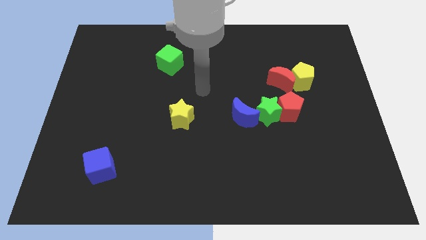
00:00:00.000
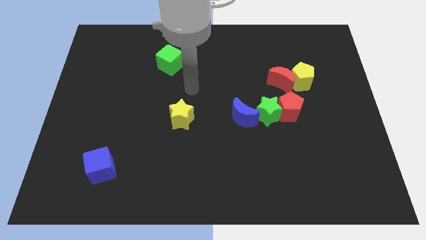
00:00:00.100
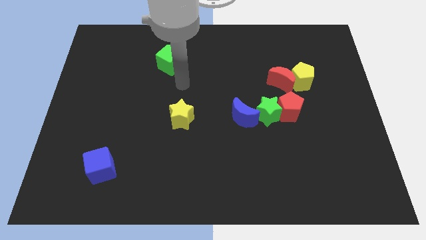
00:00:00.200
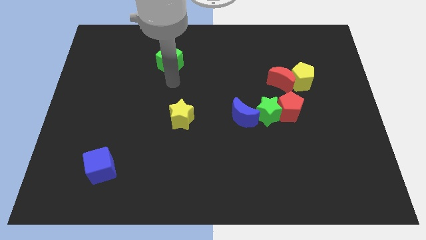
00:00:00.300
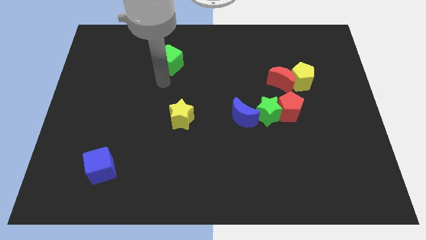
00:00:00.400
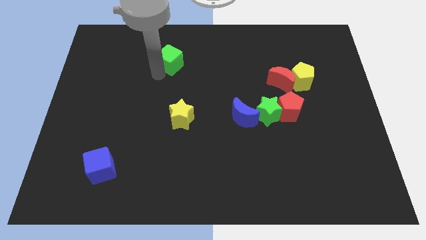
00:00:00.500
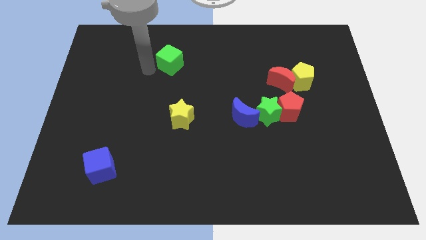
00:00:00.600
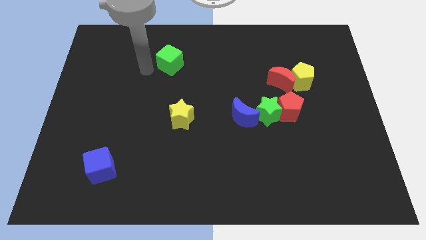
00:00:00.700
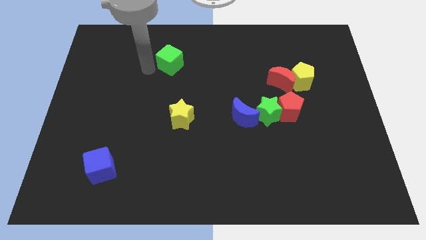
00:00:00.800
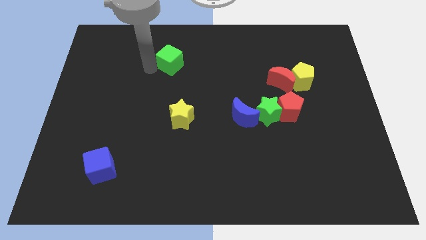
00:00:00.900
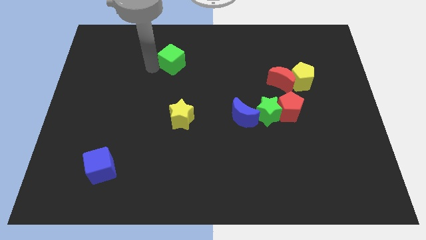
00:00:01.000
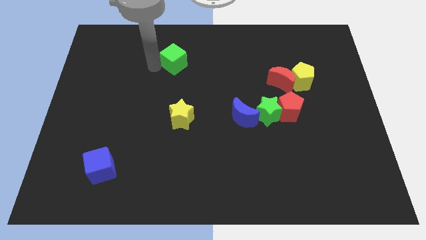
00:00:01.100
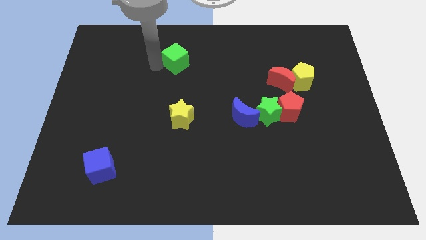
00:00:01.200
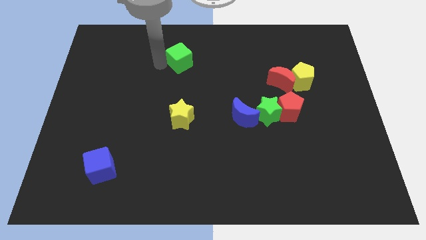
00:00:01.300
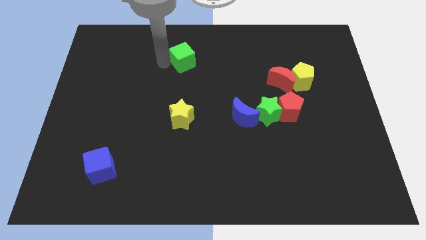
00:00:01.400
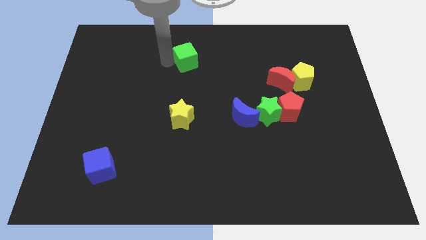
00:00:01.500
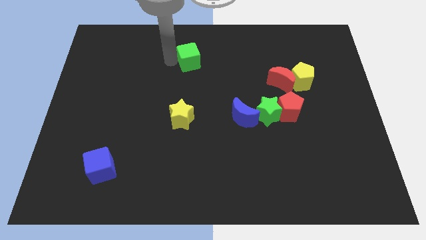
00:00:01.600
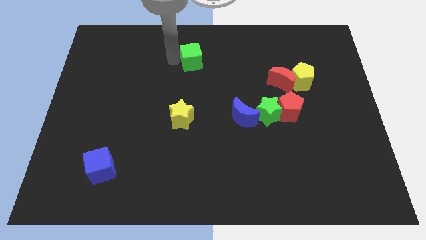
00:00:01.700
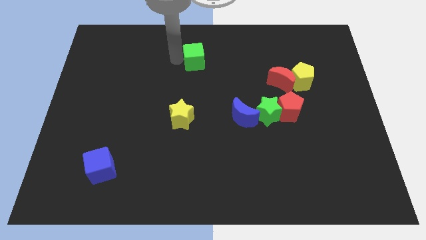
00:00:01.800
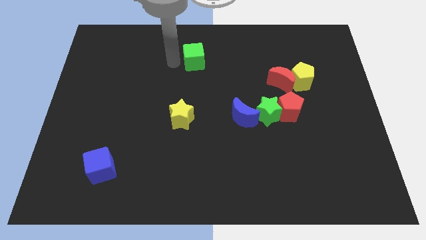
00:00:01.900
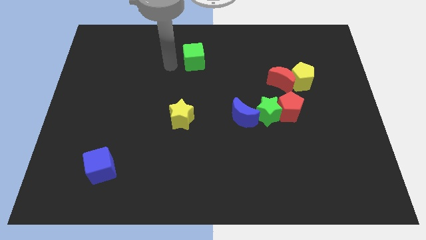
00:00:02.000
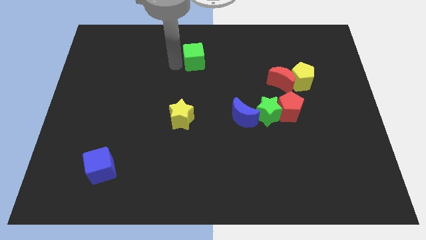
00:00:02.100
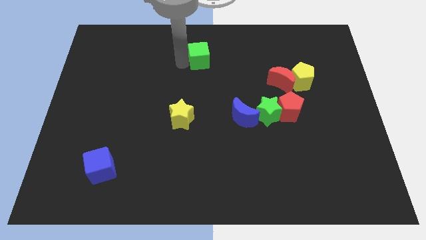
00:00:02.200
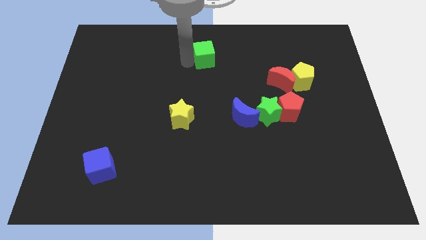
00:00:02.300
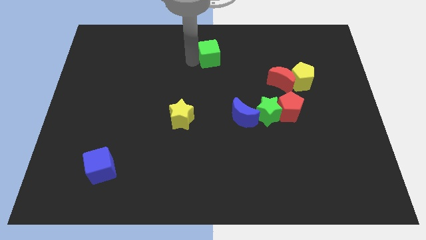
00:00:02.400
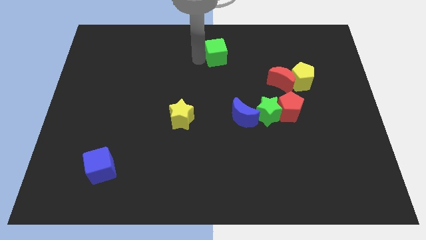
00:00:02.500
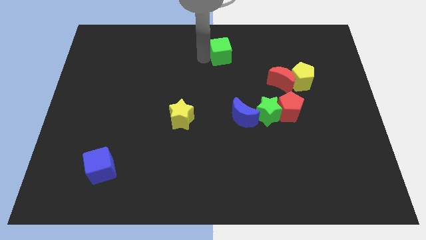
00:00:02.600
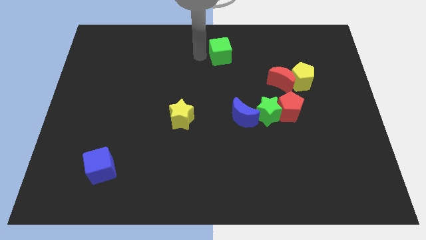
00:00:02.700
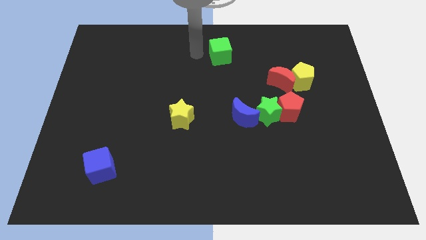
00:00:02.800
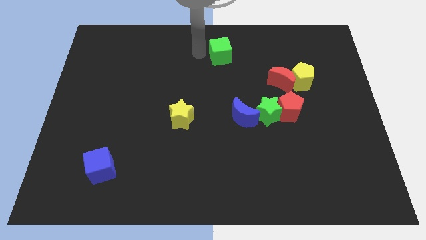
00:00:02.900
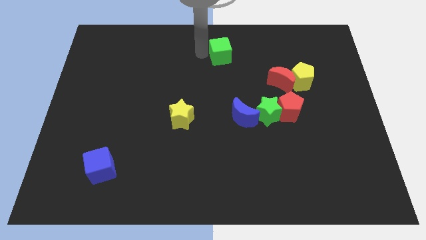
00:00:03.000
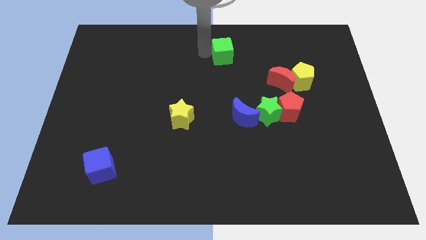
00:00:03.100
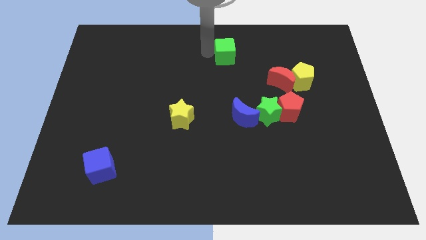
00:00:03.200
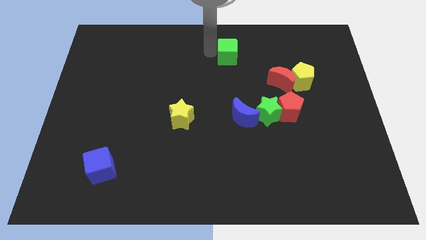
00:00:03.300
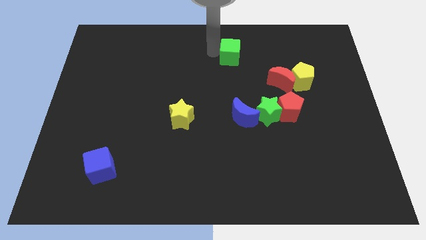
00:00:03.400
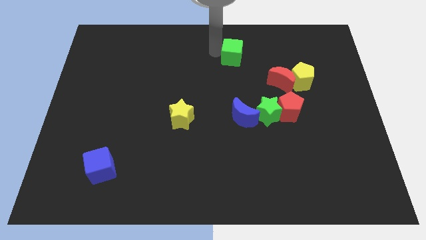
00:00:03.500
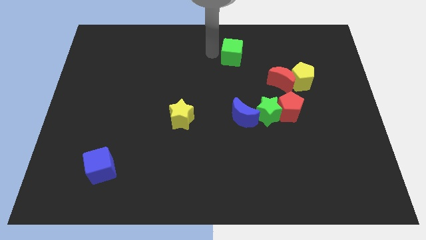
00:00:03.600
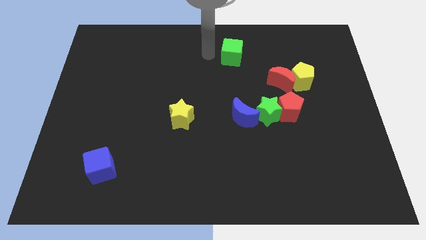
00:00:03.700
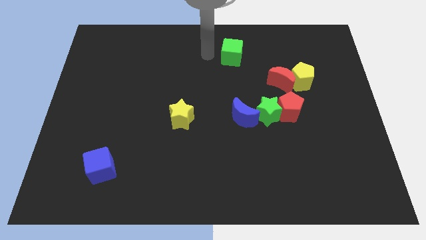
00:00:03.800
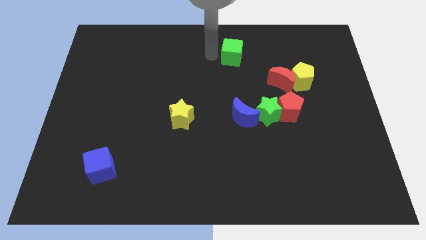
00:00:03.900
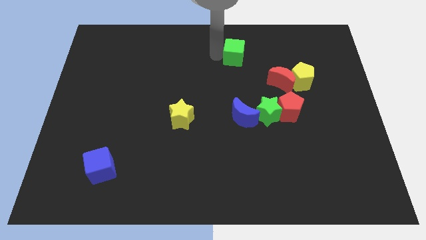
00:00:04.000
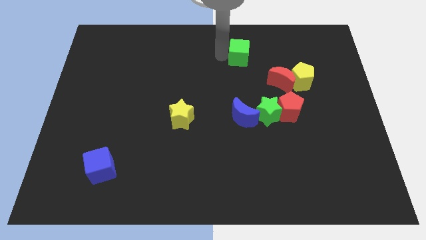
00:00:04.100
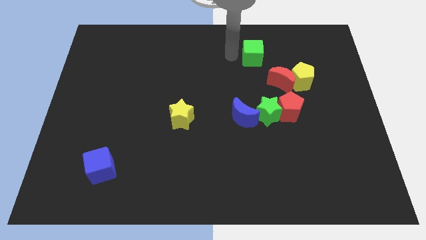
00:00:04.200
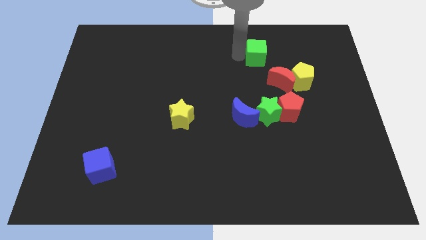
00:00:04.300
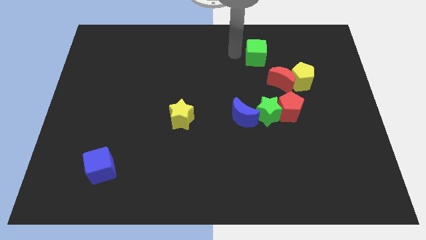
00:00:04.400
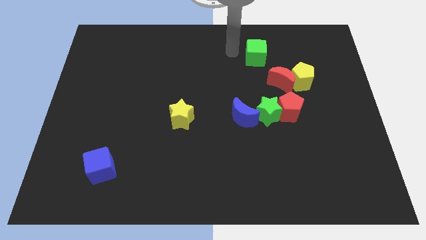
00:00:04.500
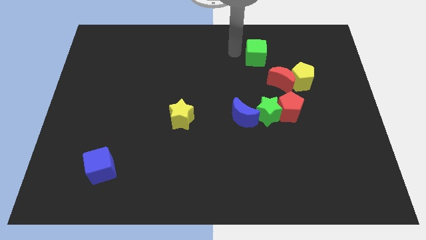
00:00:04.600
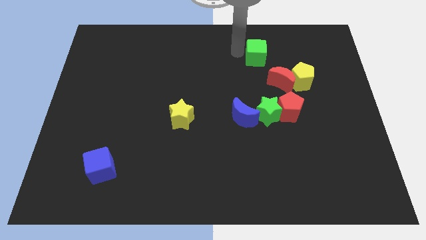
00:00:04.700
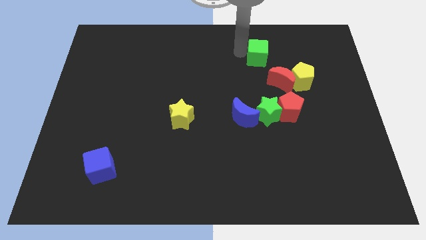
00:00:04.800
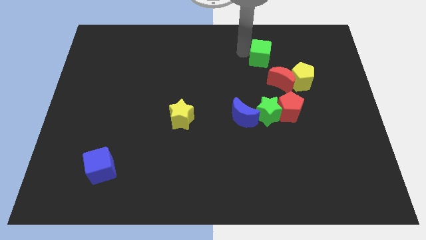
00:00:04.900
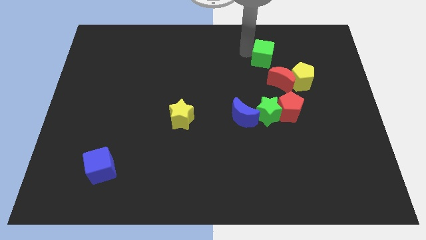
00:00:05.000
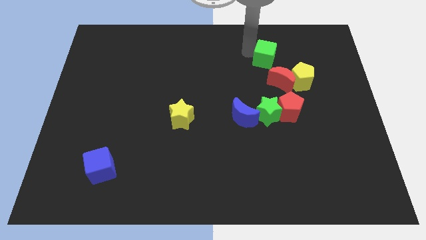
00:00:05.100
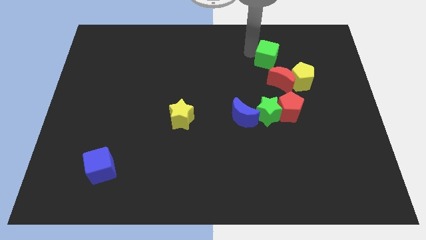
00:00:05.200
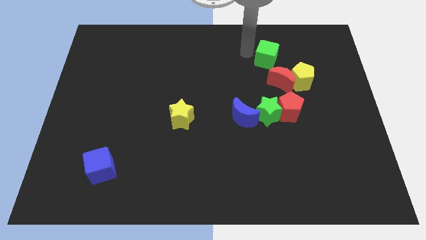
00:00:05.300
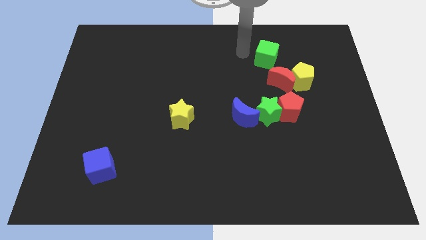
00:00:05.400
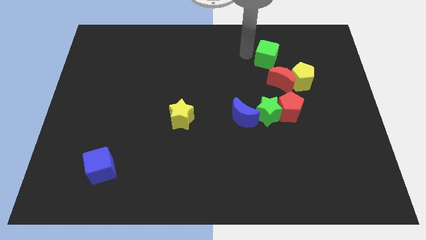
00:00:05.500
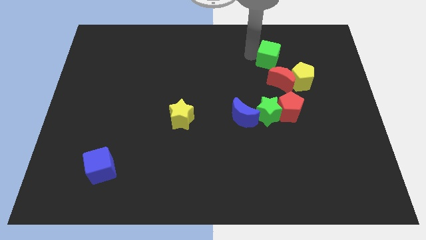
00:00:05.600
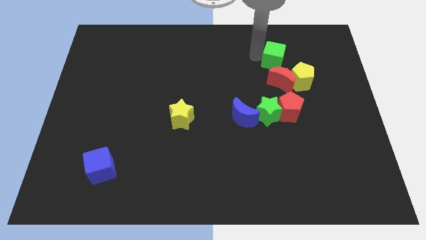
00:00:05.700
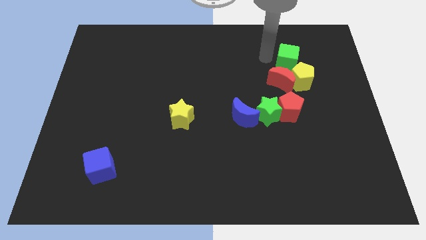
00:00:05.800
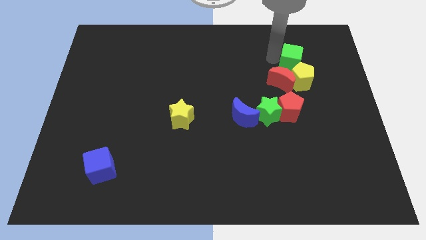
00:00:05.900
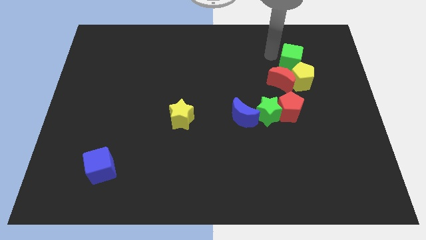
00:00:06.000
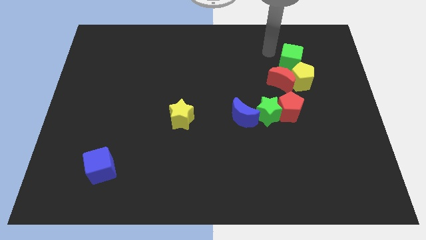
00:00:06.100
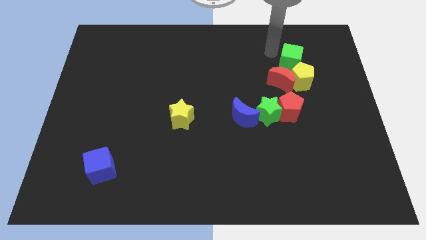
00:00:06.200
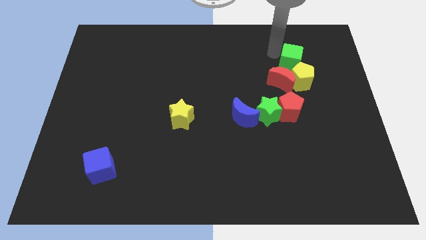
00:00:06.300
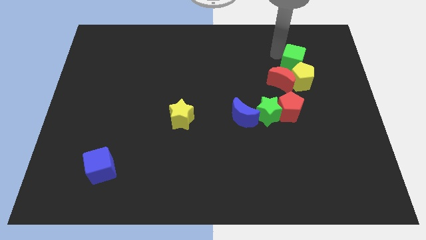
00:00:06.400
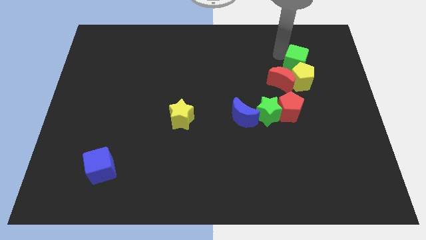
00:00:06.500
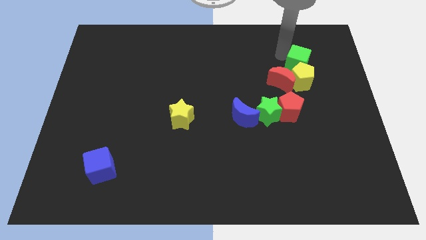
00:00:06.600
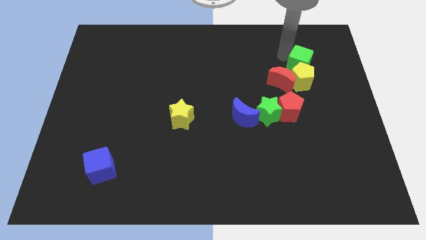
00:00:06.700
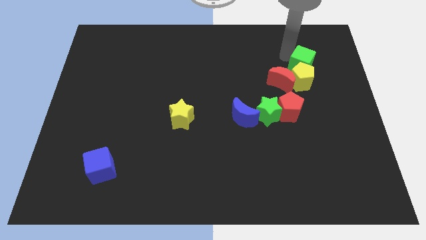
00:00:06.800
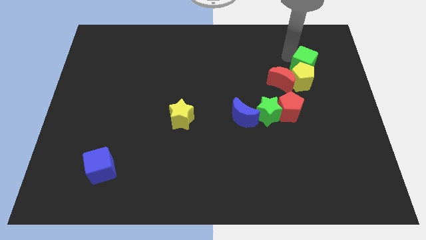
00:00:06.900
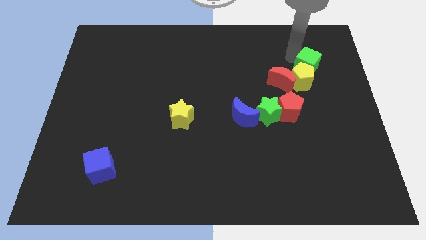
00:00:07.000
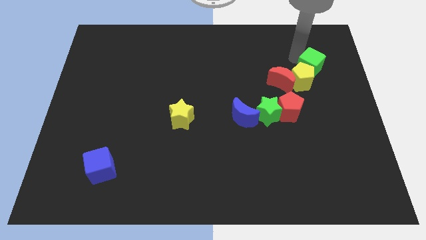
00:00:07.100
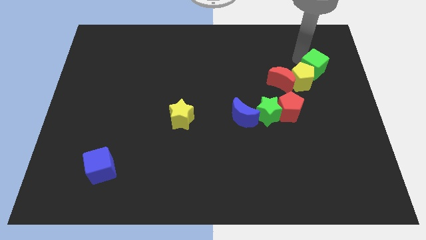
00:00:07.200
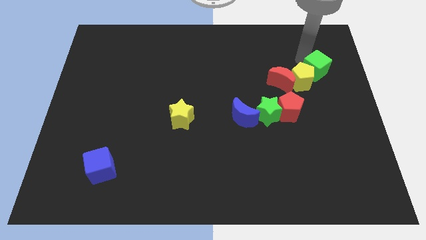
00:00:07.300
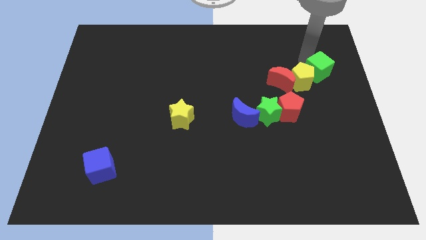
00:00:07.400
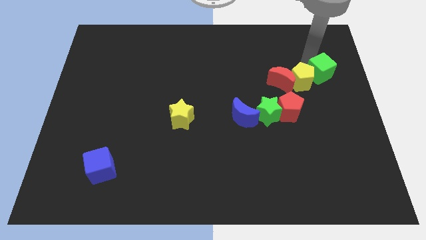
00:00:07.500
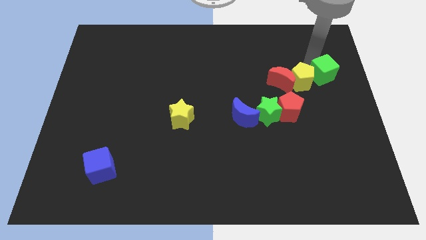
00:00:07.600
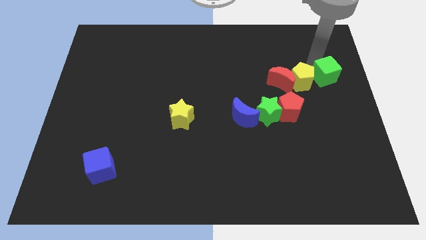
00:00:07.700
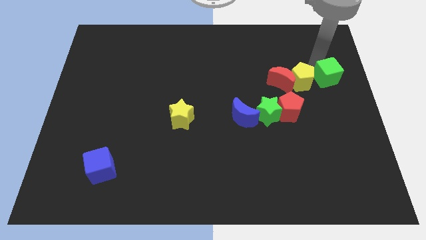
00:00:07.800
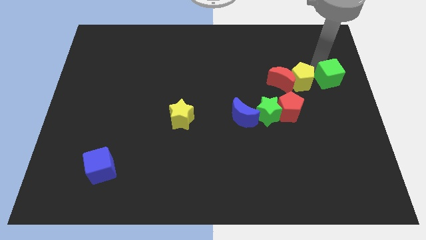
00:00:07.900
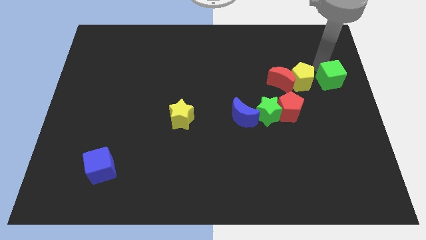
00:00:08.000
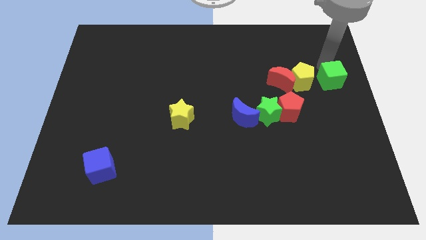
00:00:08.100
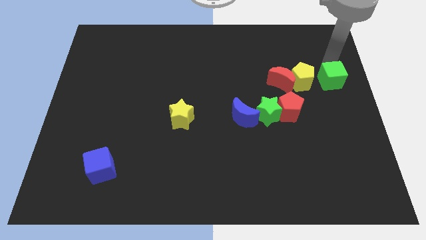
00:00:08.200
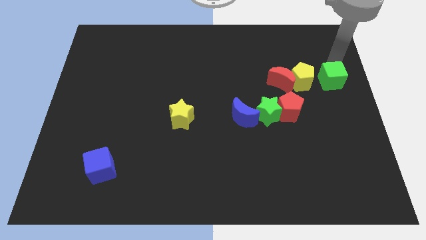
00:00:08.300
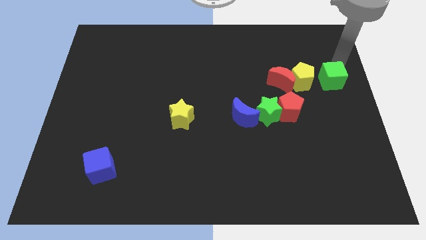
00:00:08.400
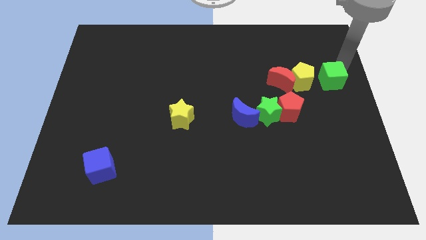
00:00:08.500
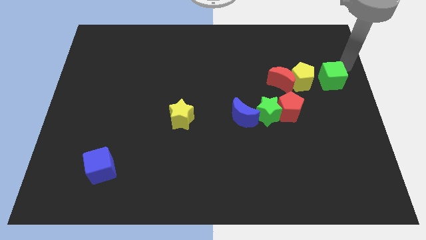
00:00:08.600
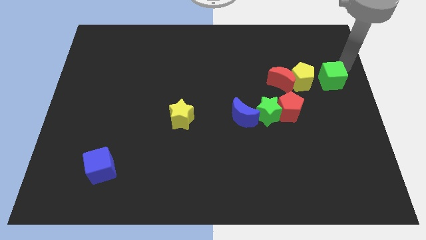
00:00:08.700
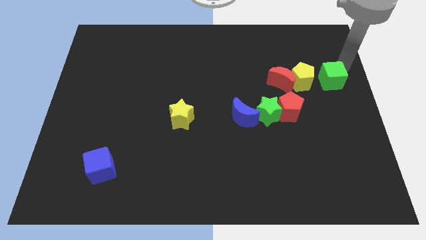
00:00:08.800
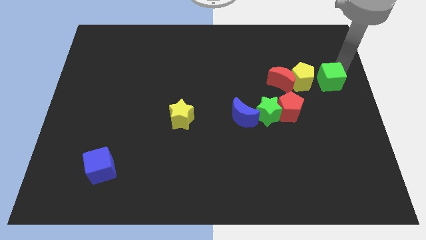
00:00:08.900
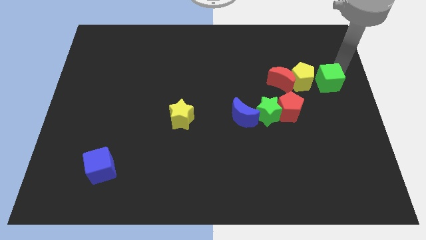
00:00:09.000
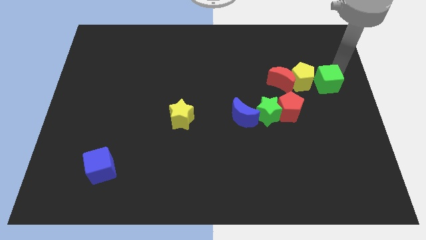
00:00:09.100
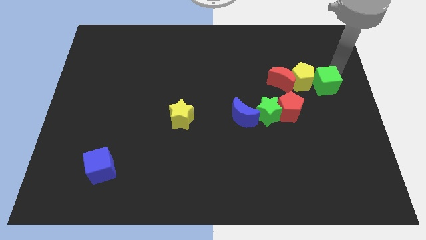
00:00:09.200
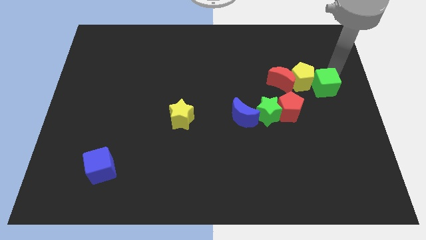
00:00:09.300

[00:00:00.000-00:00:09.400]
slide the green cube to the top right of the red pentagon
